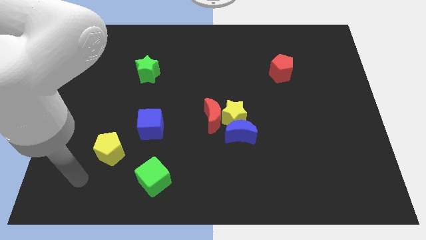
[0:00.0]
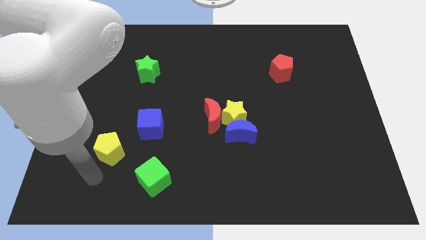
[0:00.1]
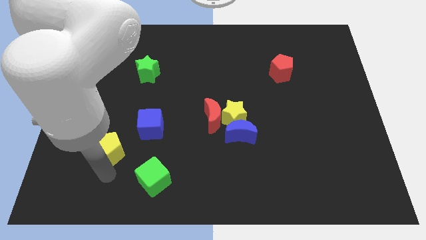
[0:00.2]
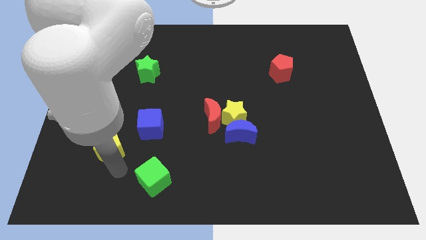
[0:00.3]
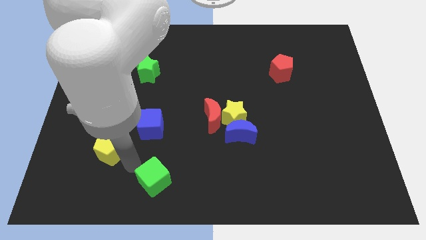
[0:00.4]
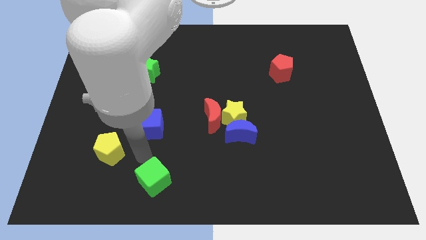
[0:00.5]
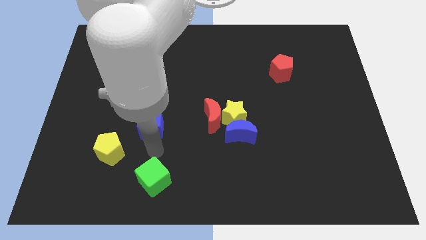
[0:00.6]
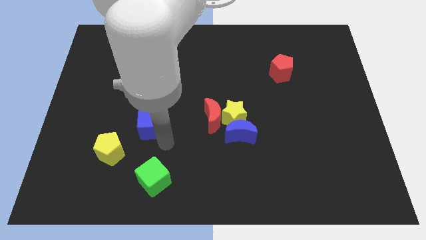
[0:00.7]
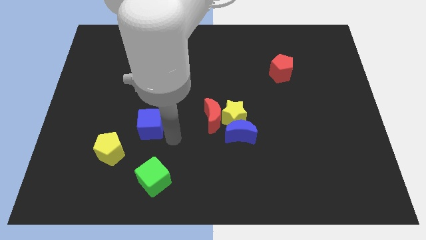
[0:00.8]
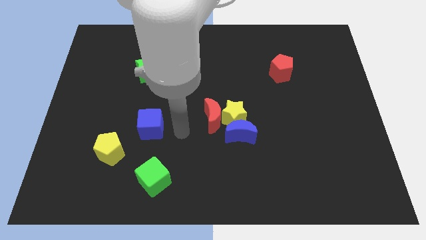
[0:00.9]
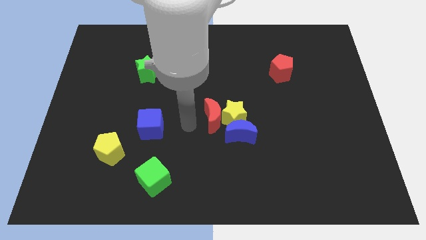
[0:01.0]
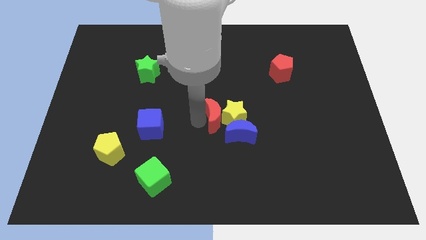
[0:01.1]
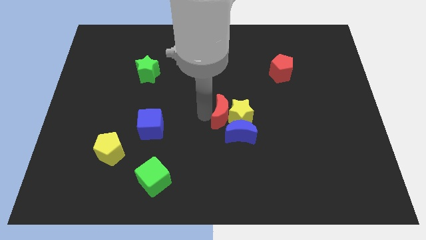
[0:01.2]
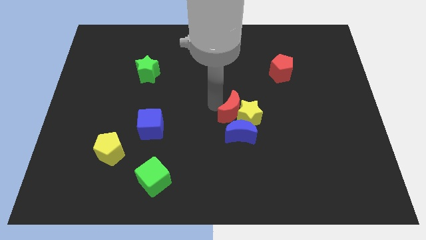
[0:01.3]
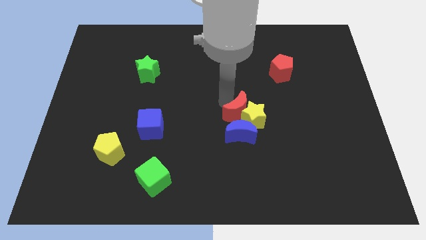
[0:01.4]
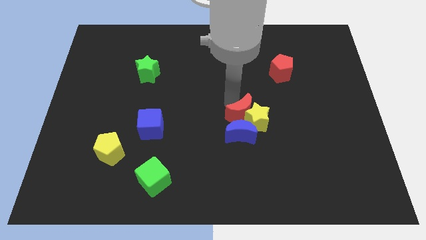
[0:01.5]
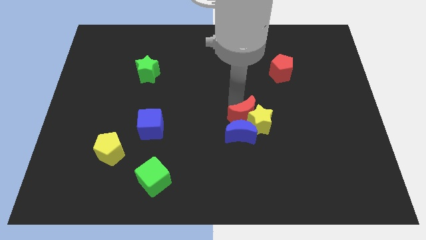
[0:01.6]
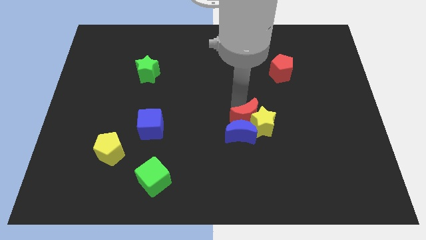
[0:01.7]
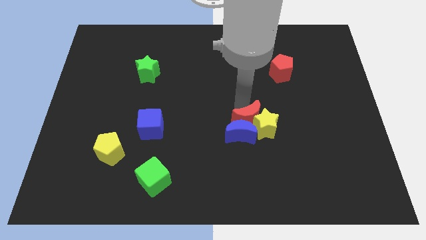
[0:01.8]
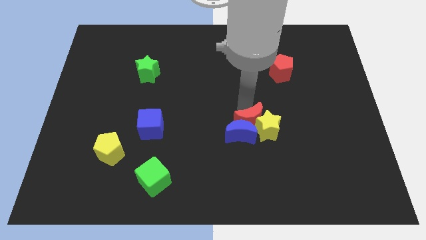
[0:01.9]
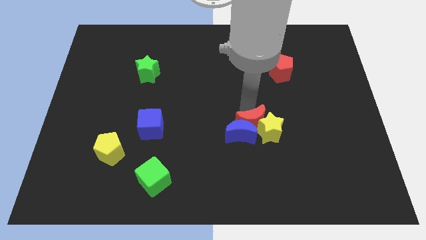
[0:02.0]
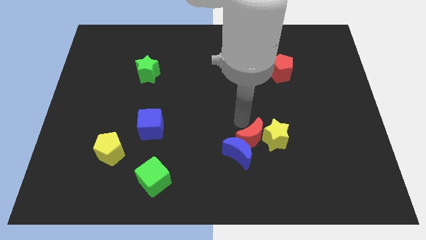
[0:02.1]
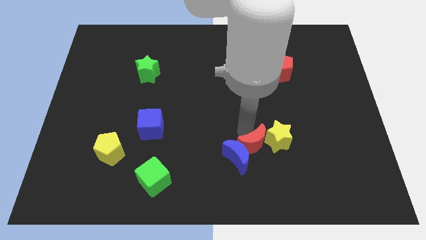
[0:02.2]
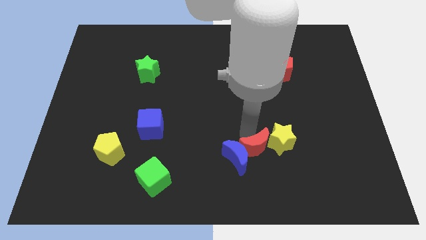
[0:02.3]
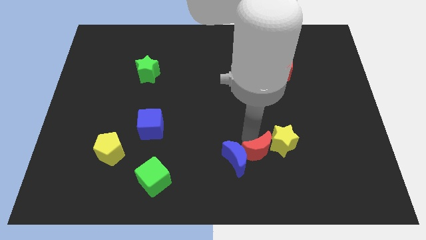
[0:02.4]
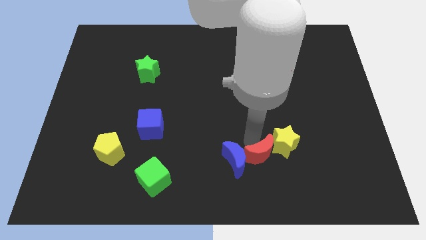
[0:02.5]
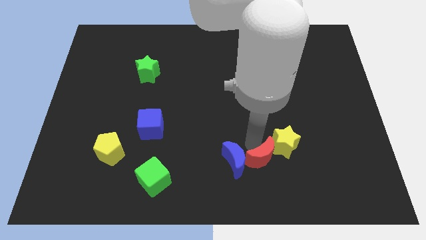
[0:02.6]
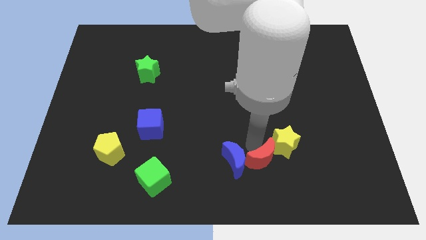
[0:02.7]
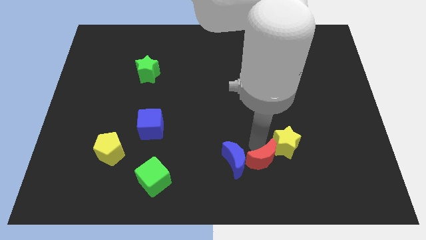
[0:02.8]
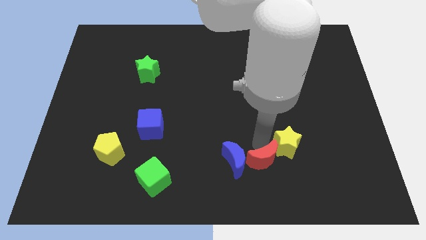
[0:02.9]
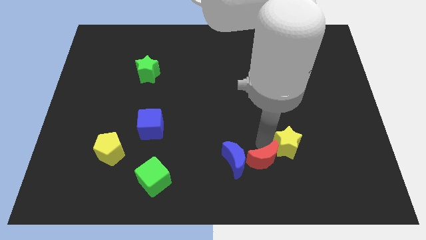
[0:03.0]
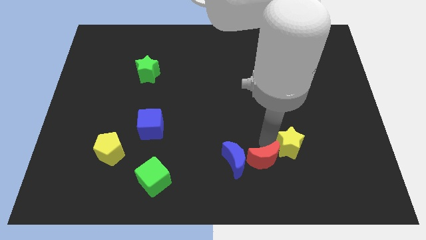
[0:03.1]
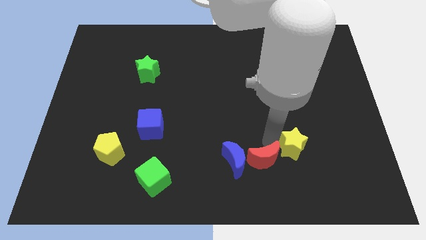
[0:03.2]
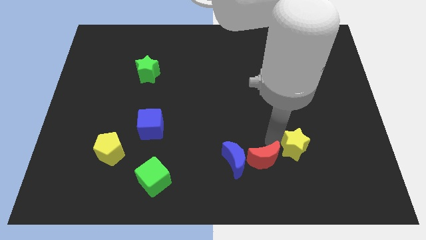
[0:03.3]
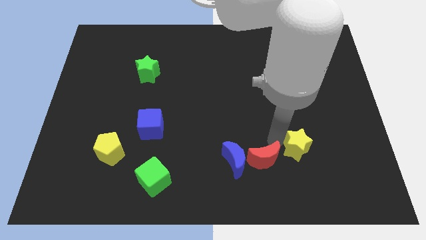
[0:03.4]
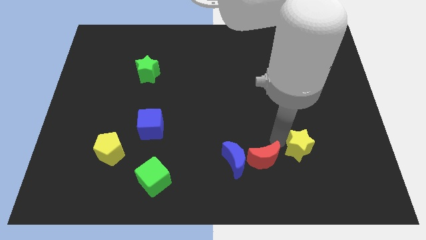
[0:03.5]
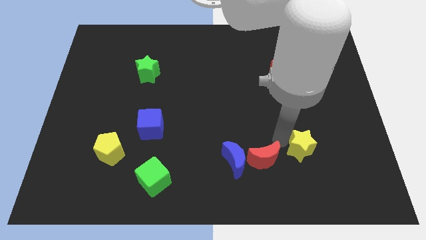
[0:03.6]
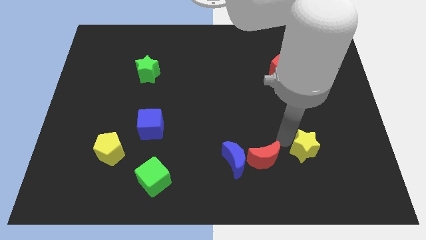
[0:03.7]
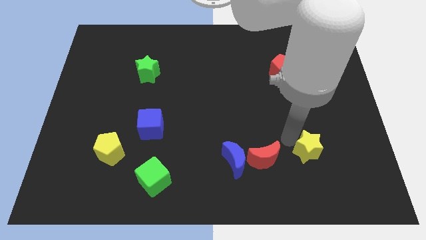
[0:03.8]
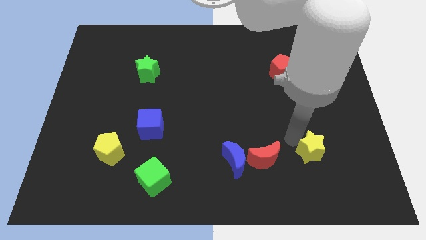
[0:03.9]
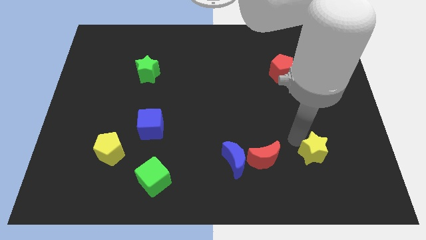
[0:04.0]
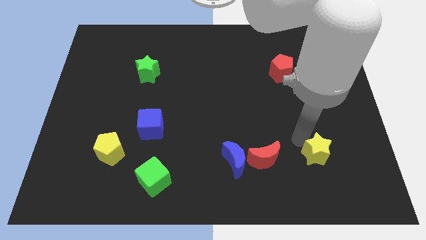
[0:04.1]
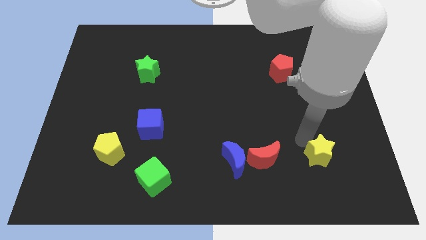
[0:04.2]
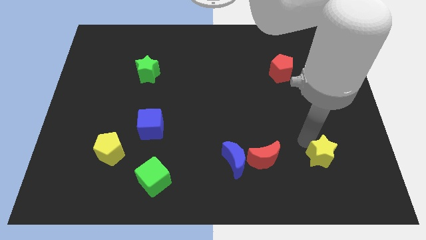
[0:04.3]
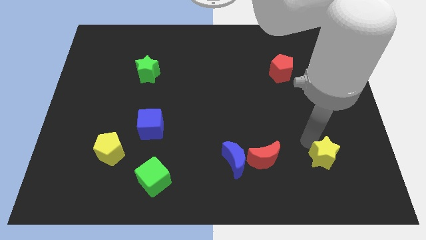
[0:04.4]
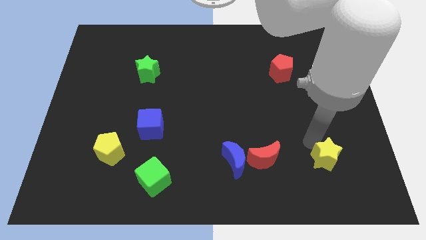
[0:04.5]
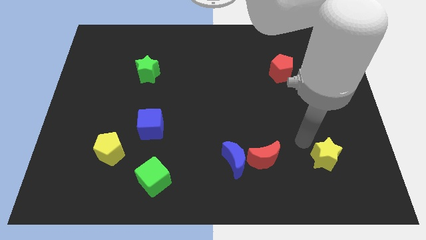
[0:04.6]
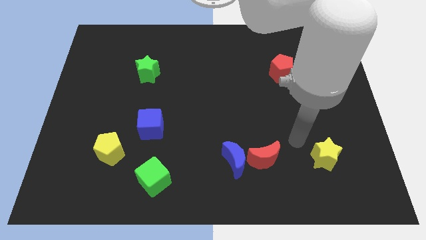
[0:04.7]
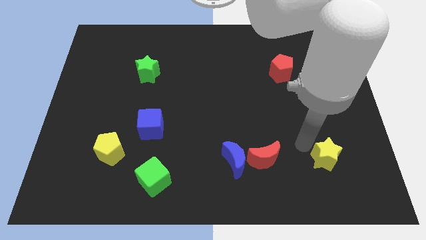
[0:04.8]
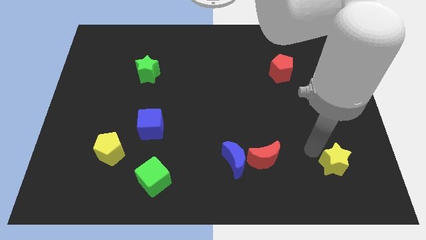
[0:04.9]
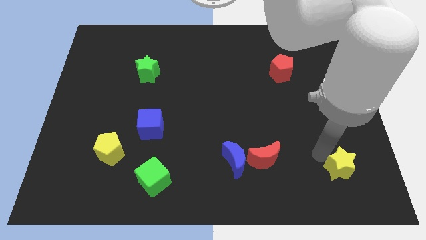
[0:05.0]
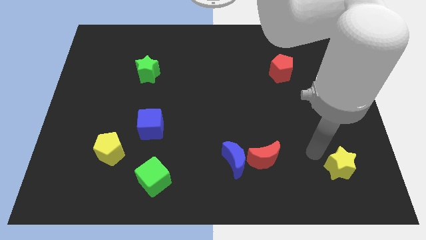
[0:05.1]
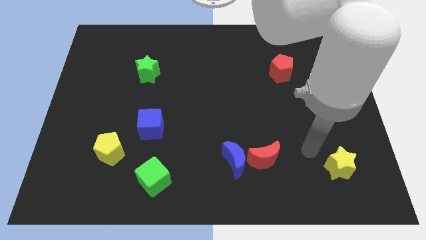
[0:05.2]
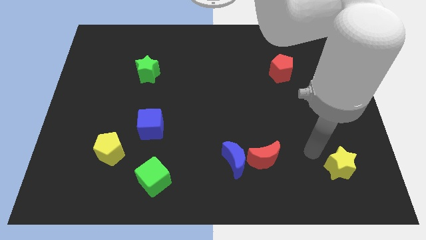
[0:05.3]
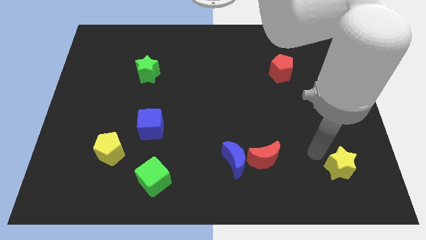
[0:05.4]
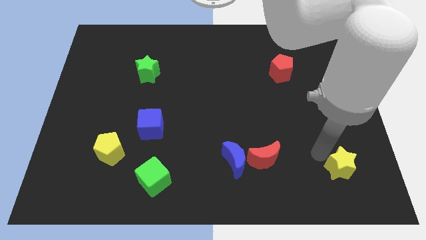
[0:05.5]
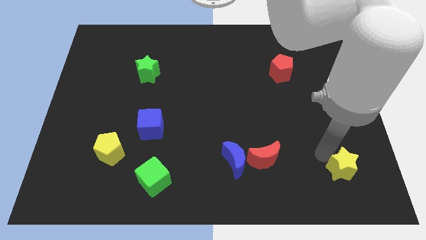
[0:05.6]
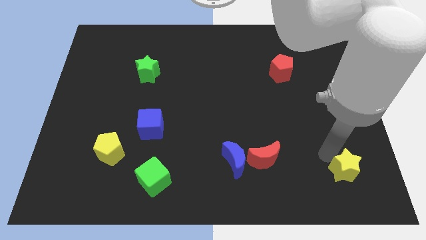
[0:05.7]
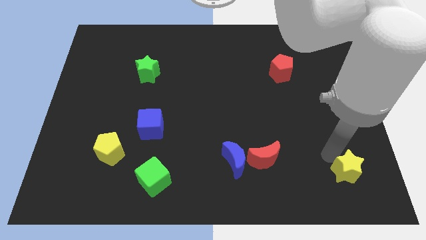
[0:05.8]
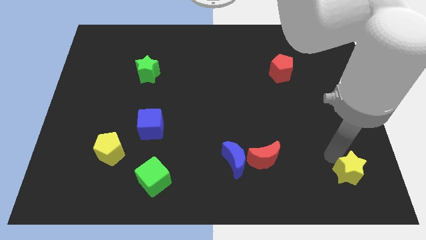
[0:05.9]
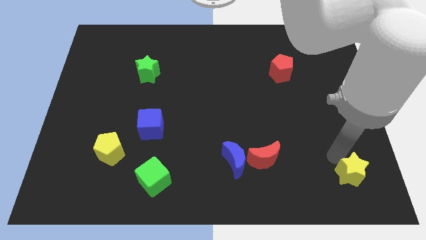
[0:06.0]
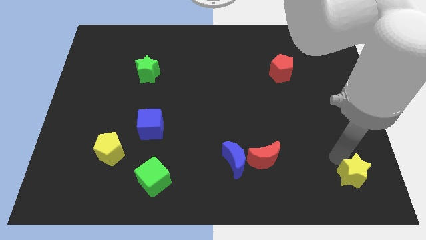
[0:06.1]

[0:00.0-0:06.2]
push the yellow star to the bottom right corner
